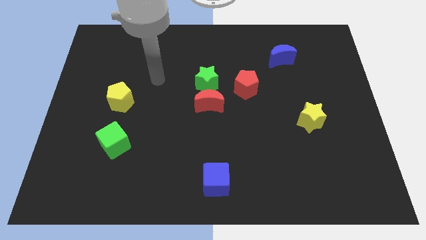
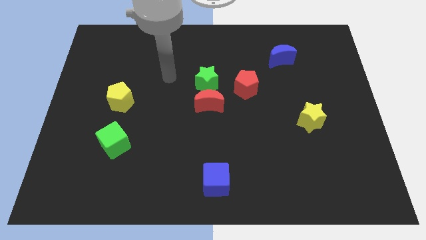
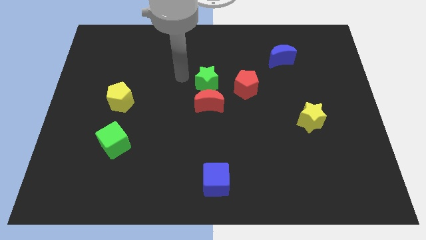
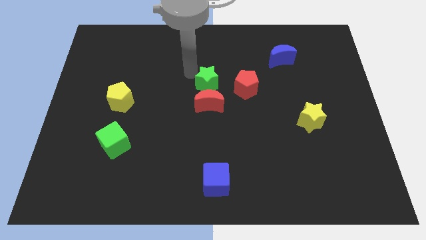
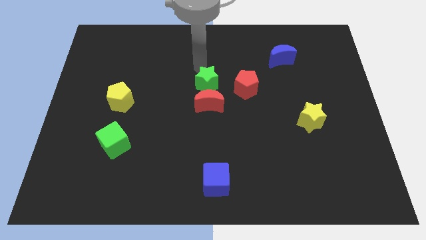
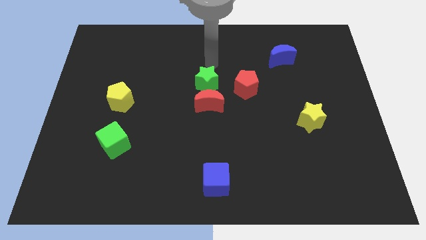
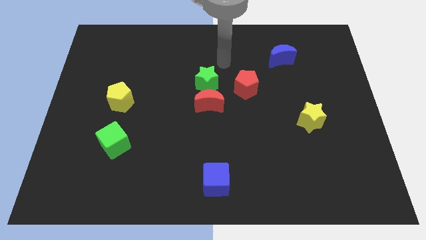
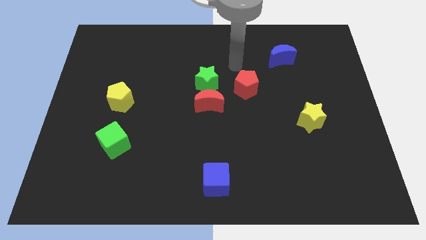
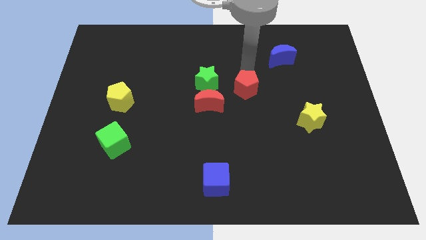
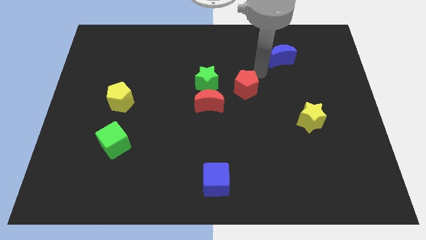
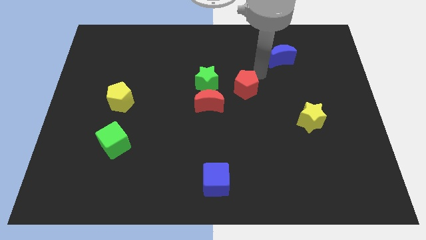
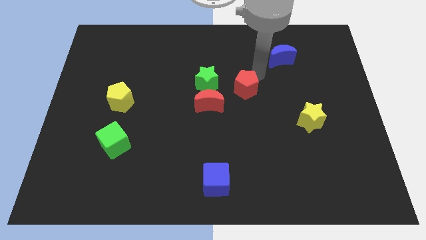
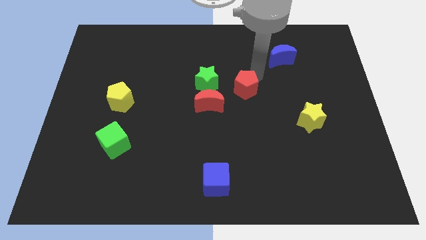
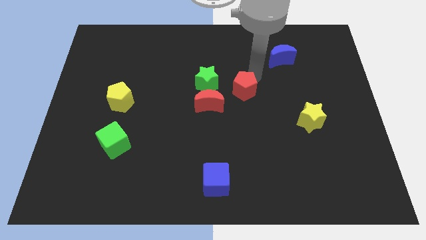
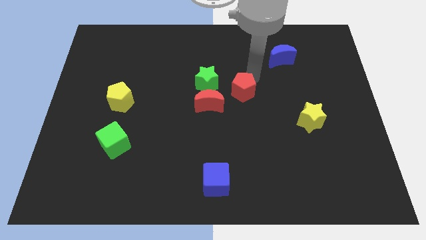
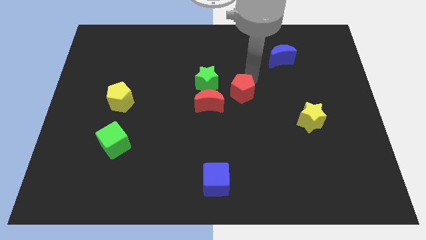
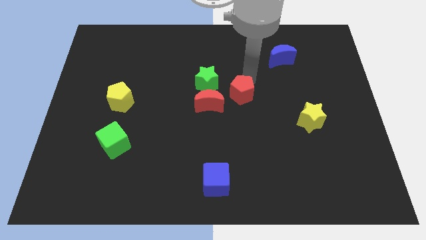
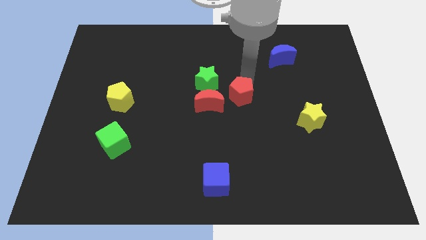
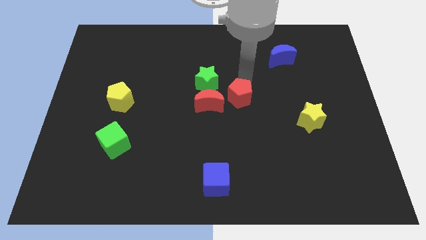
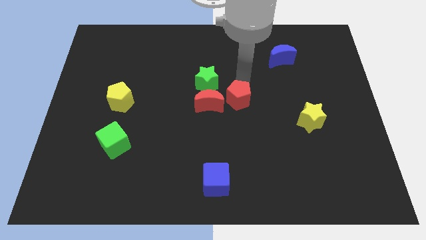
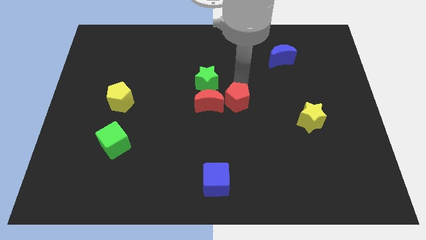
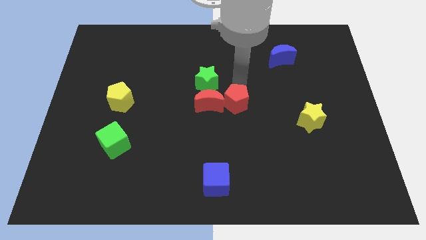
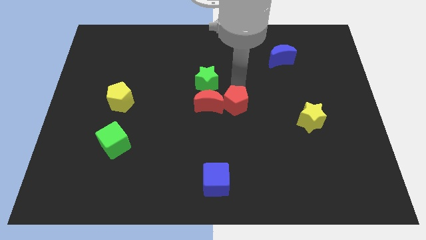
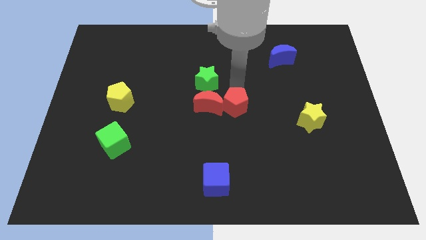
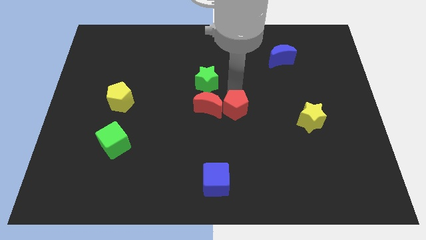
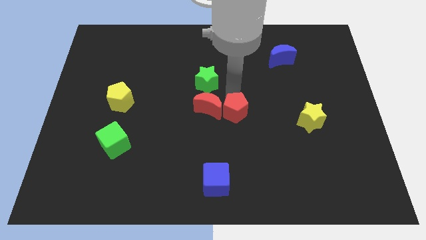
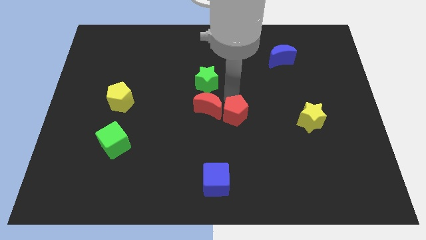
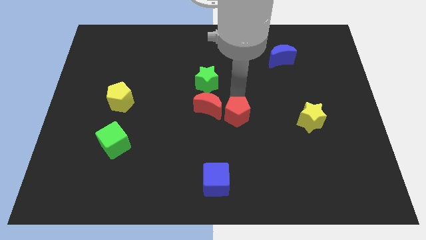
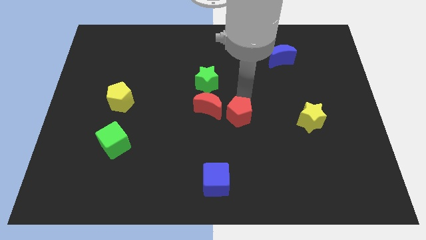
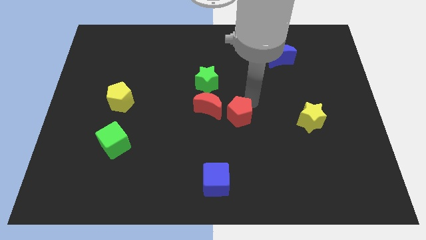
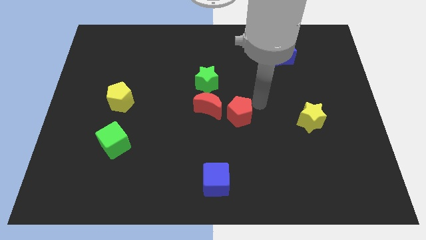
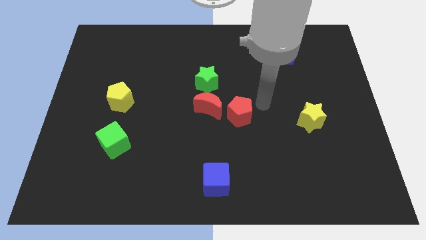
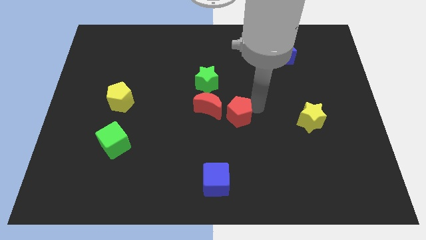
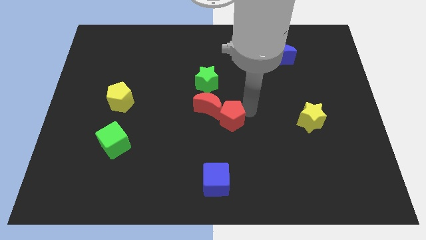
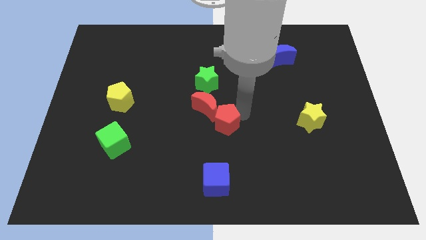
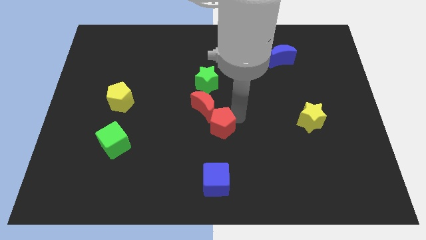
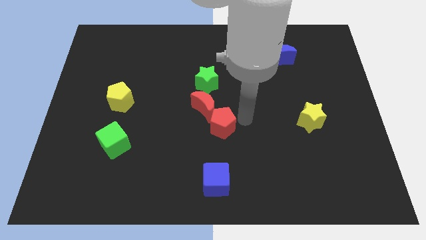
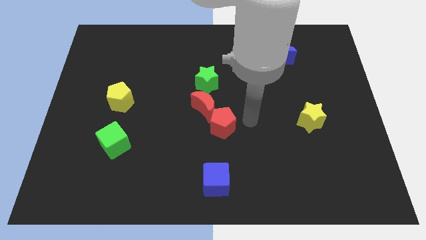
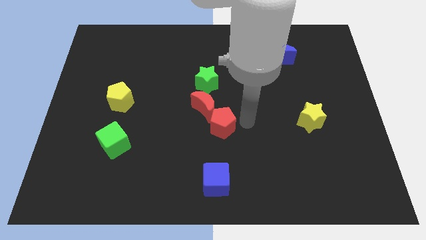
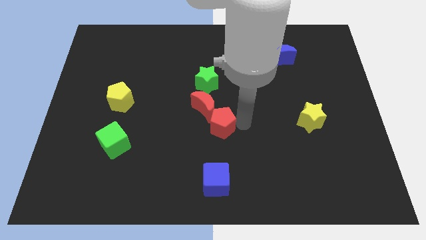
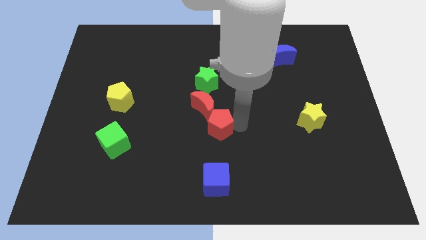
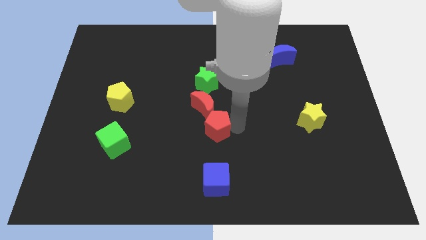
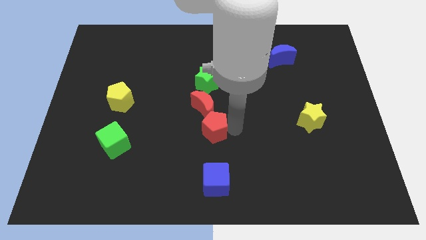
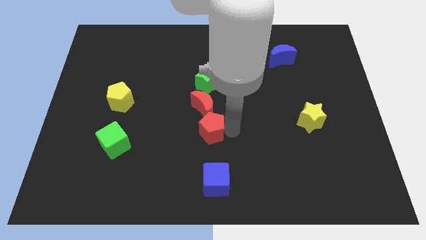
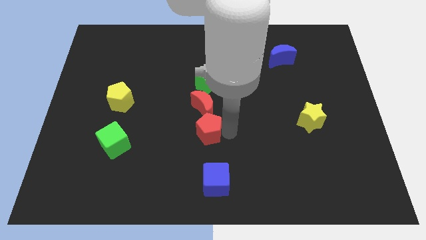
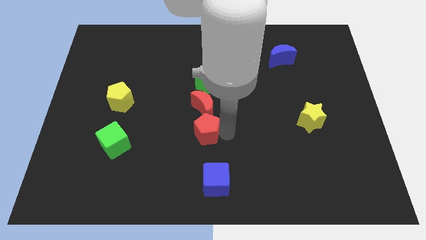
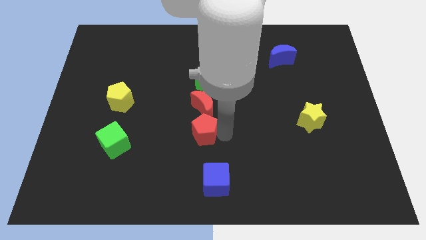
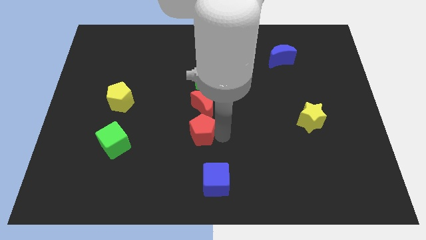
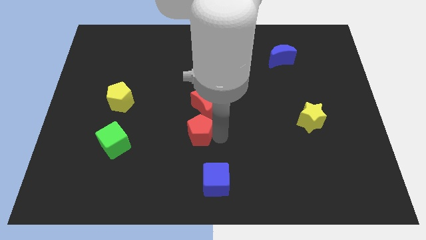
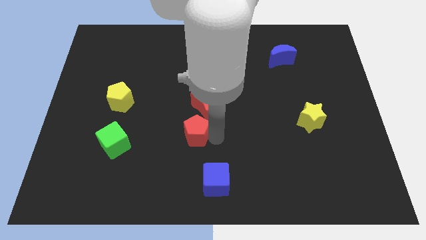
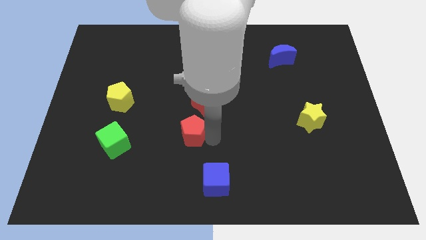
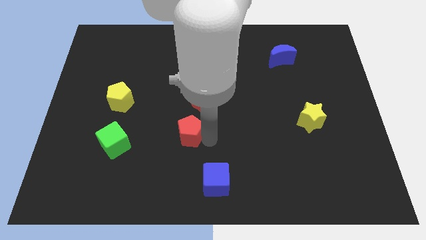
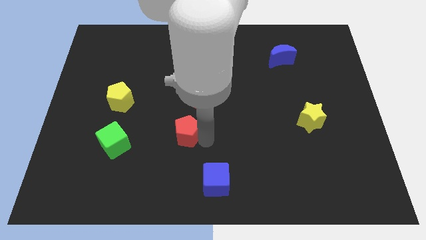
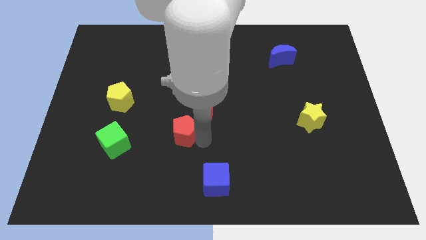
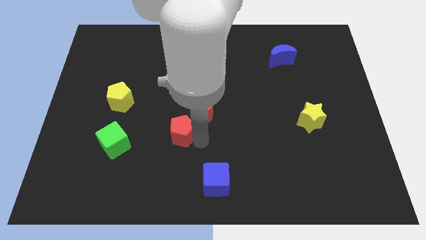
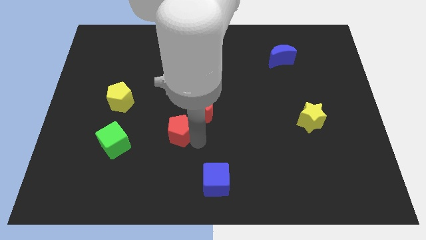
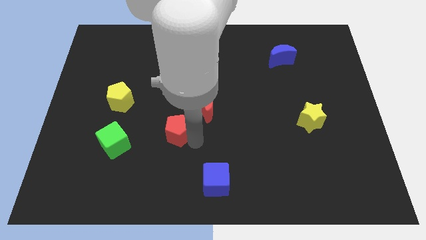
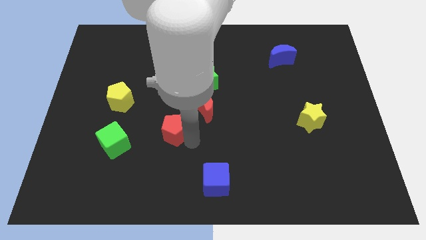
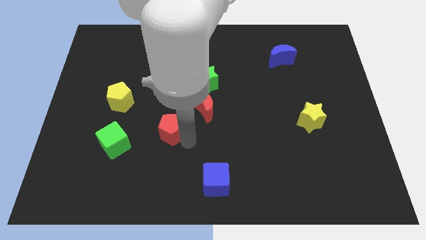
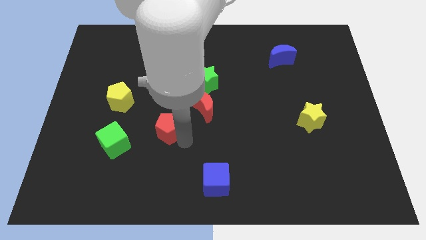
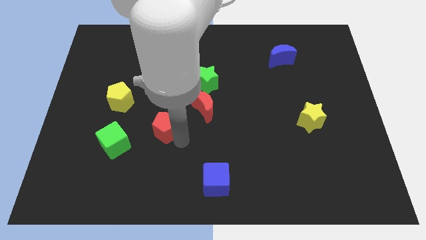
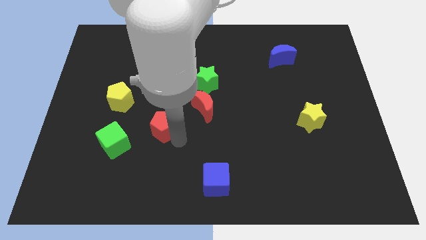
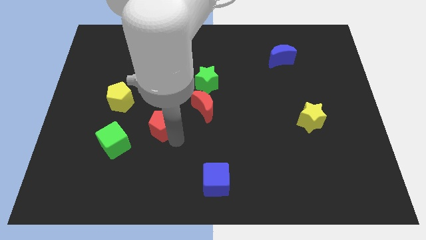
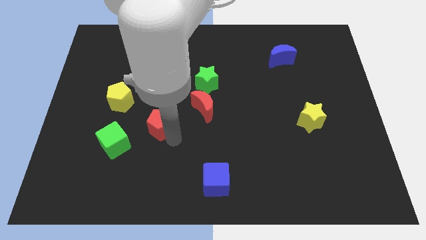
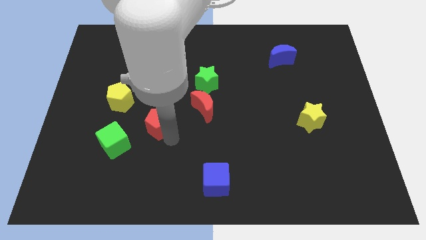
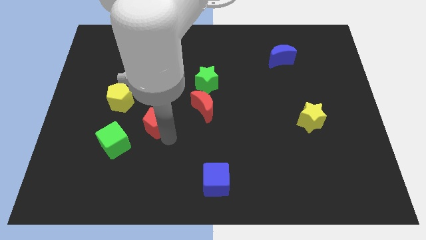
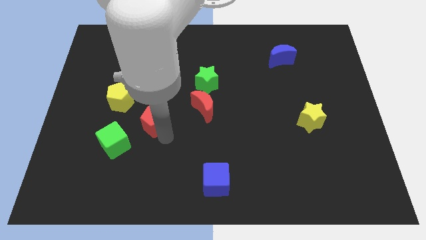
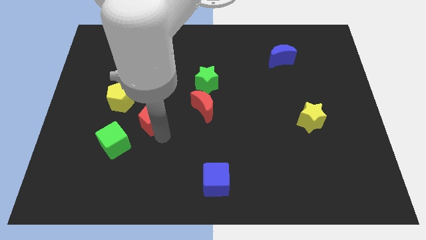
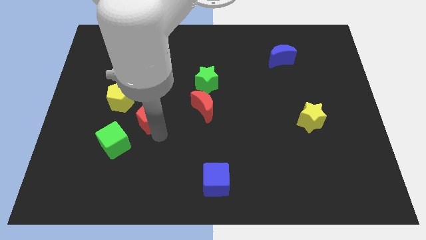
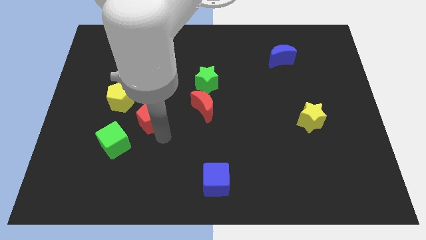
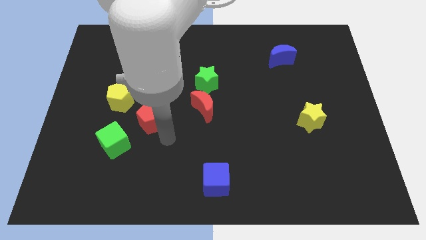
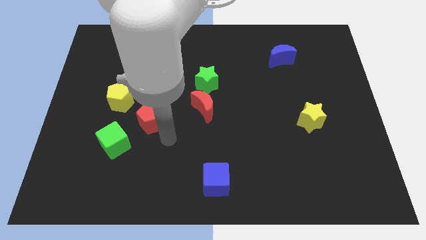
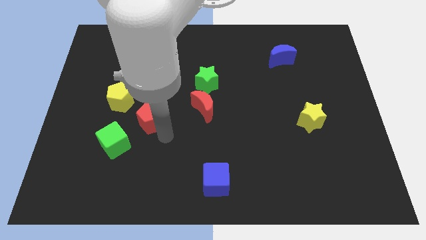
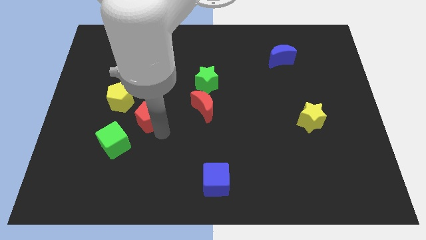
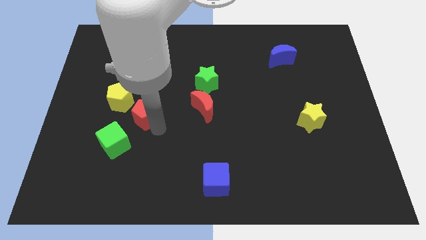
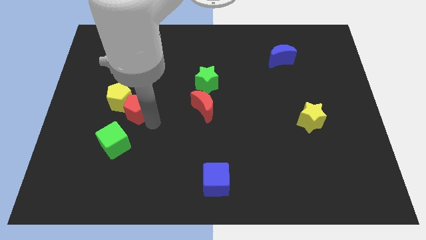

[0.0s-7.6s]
move the red pentagon next to the yellow pentagon

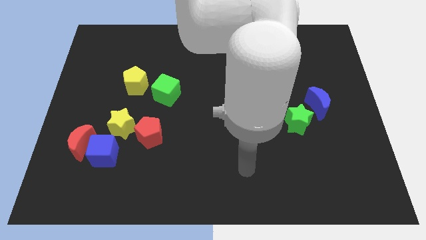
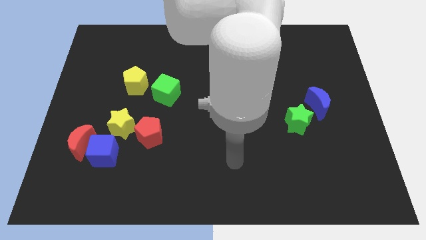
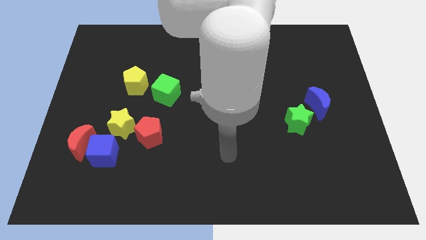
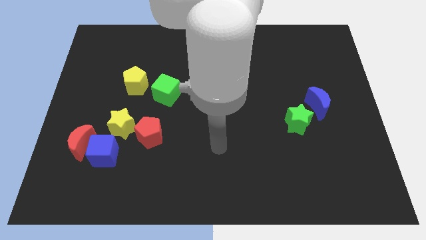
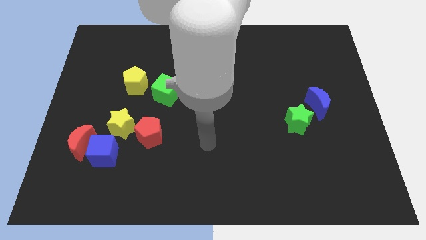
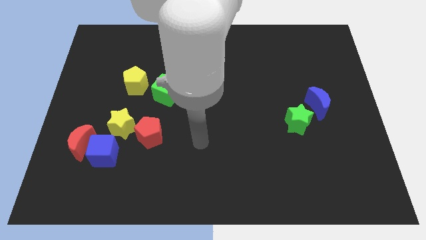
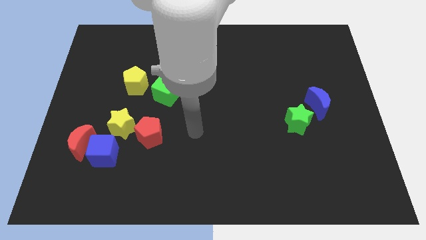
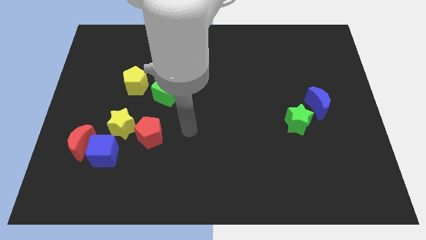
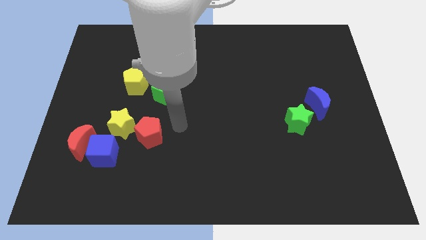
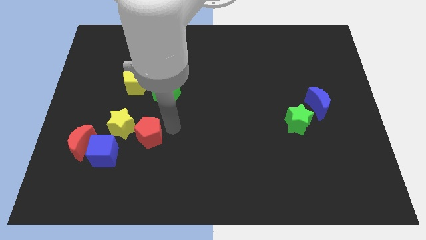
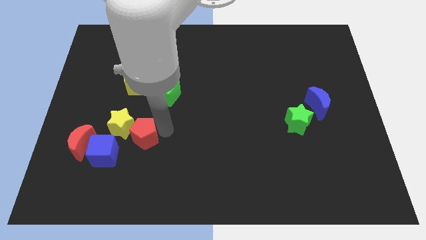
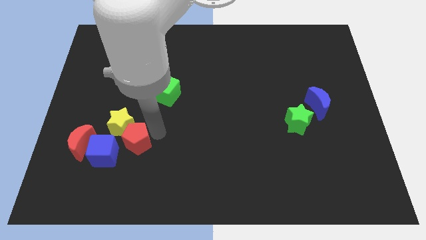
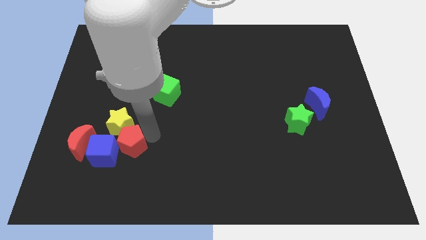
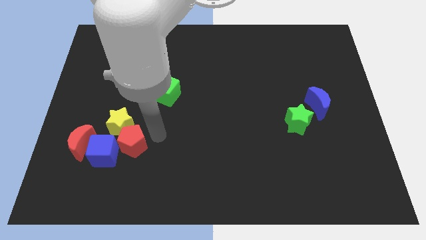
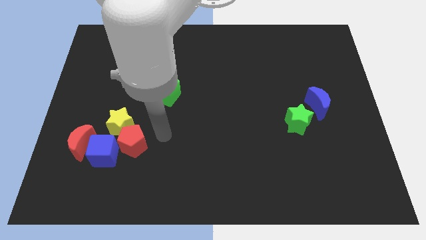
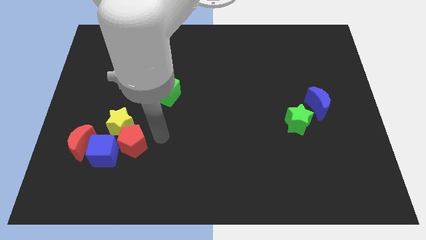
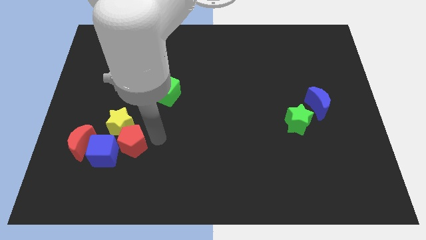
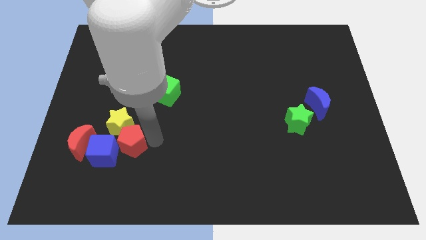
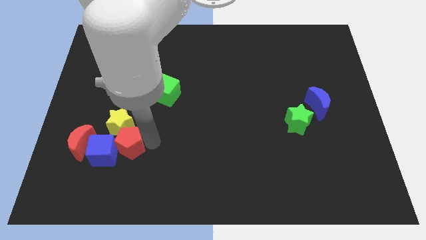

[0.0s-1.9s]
slide the red pentagon to the blue cube
